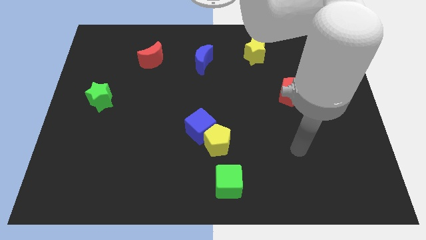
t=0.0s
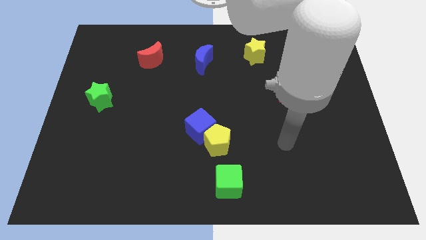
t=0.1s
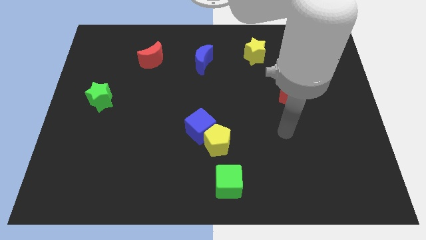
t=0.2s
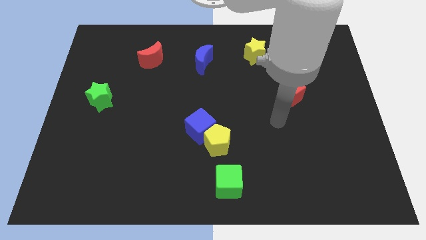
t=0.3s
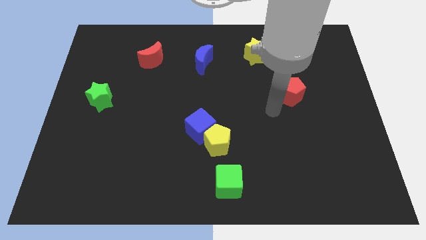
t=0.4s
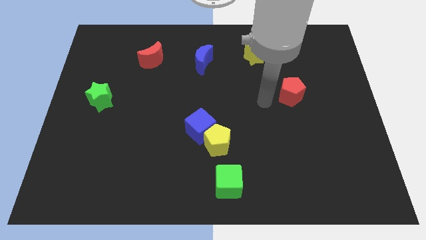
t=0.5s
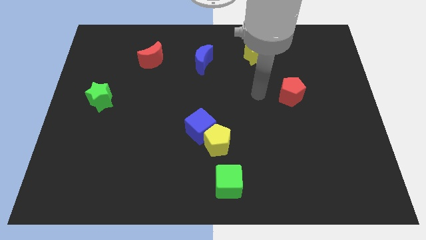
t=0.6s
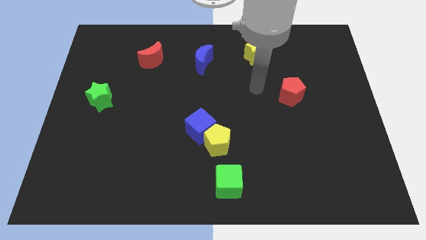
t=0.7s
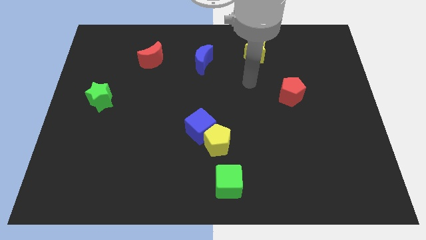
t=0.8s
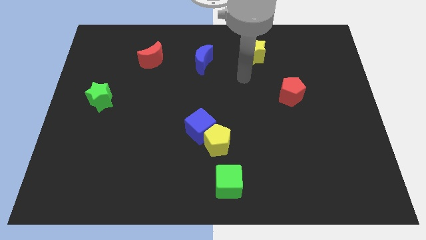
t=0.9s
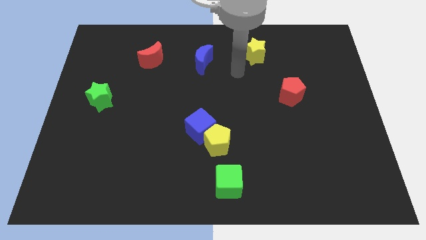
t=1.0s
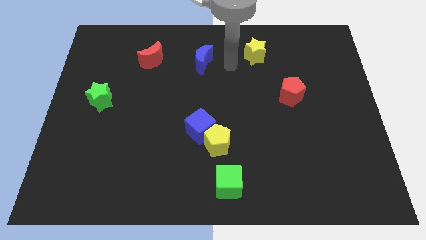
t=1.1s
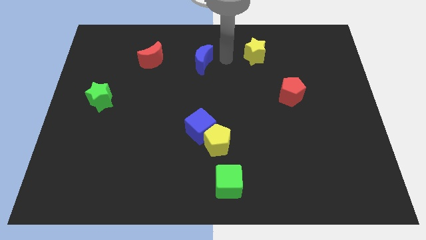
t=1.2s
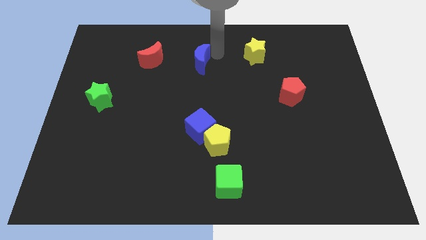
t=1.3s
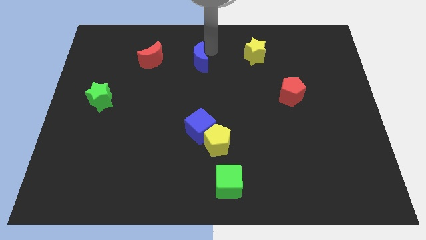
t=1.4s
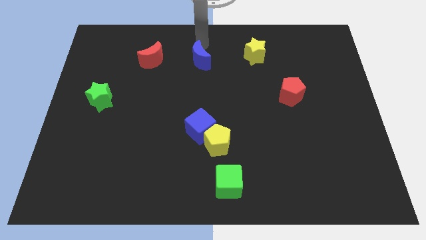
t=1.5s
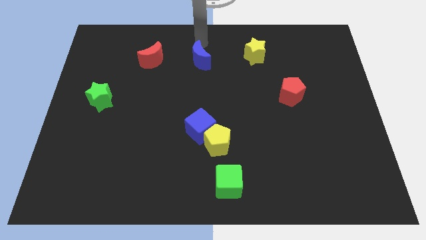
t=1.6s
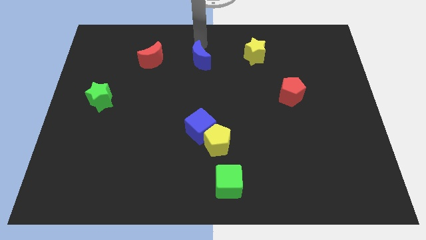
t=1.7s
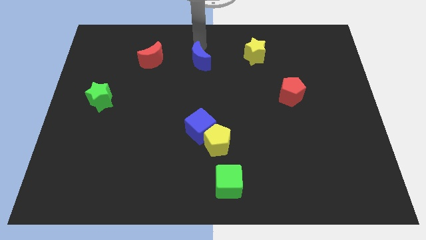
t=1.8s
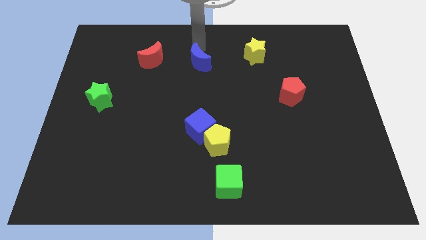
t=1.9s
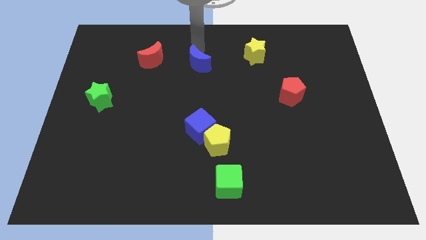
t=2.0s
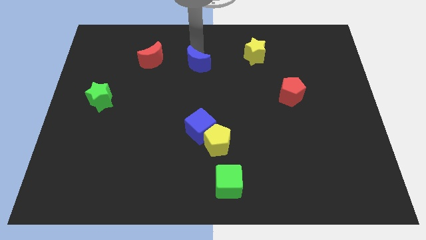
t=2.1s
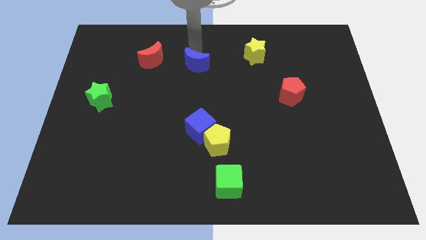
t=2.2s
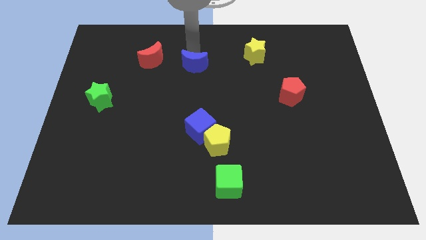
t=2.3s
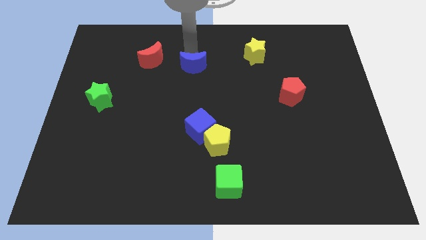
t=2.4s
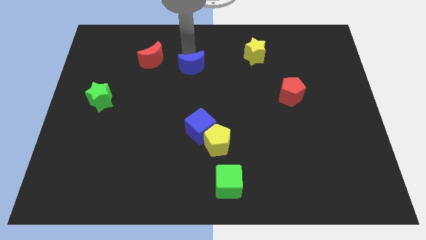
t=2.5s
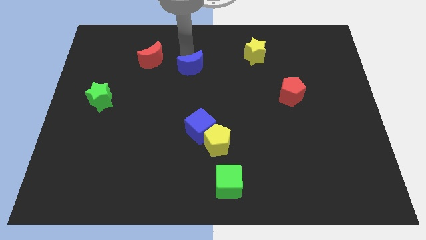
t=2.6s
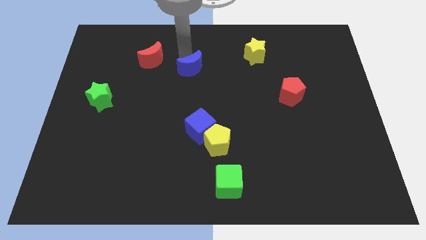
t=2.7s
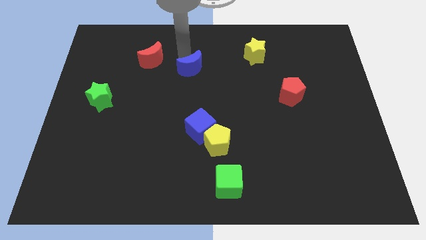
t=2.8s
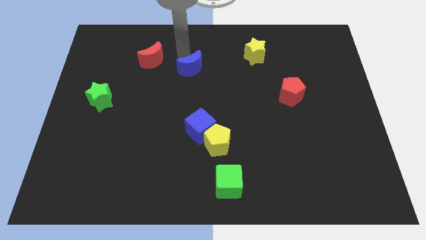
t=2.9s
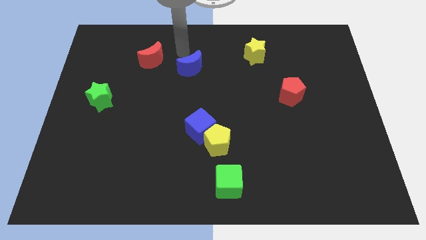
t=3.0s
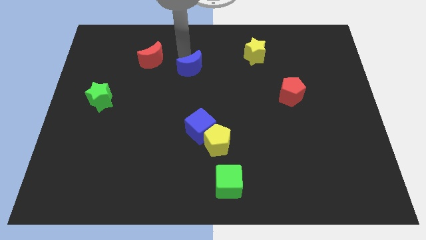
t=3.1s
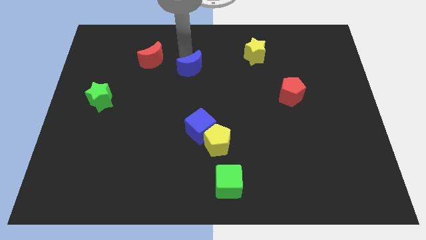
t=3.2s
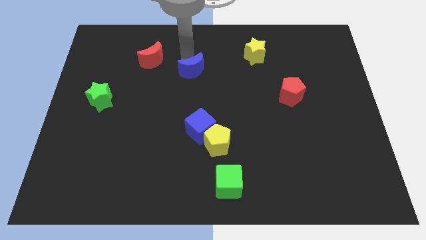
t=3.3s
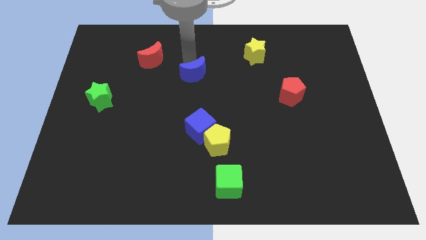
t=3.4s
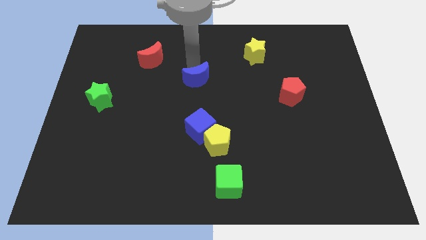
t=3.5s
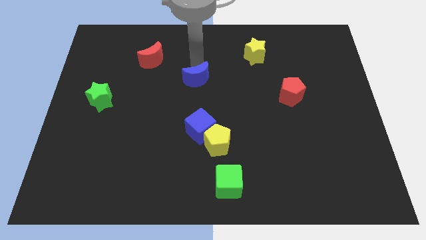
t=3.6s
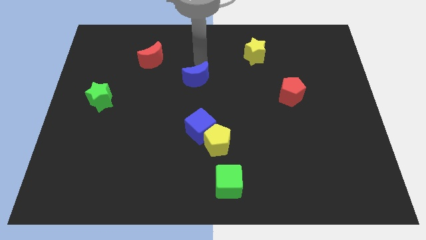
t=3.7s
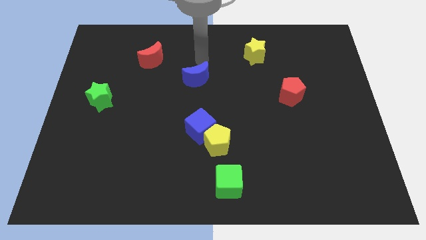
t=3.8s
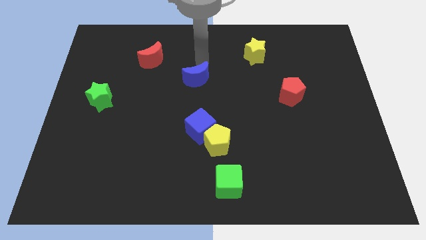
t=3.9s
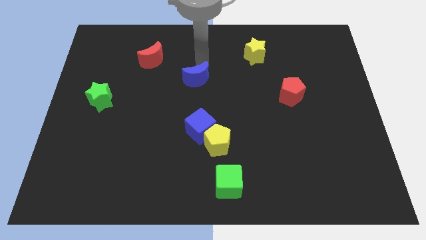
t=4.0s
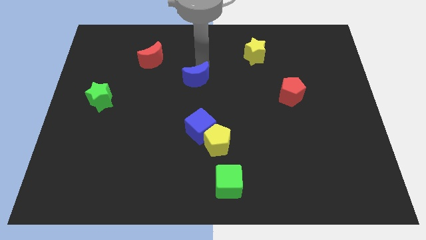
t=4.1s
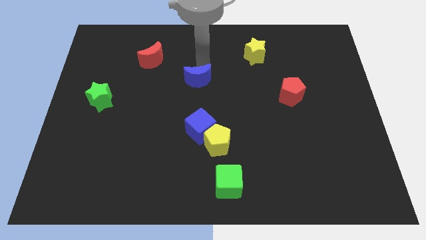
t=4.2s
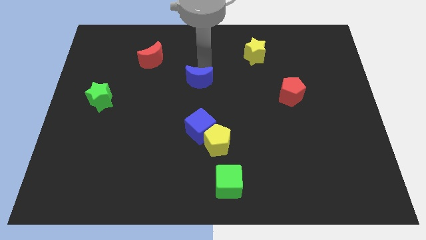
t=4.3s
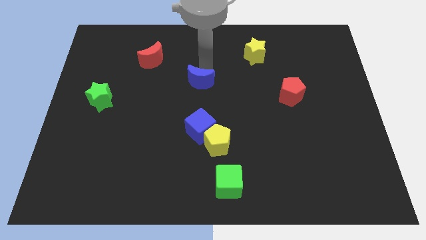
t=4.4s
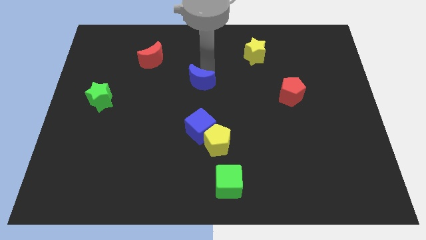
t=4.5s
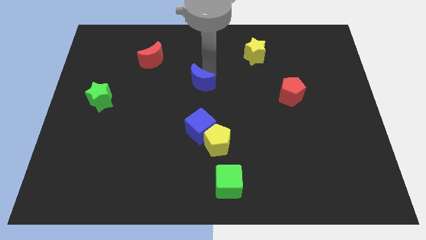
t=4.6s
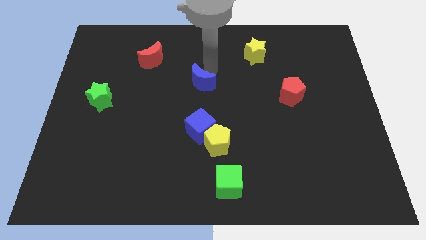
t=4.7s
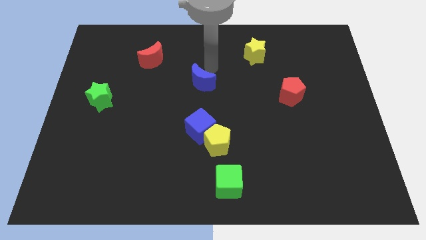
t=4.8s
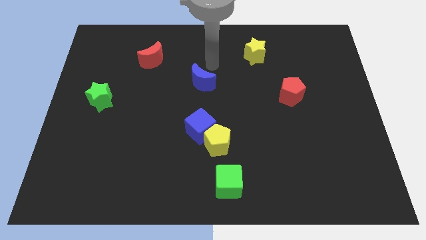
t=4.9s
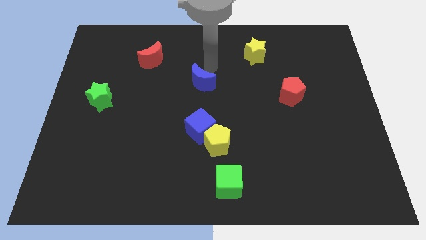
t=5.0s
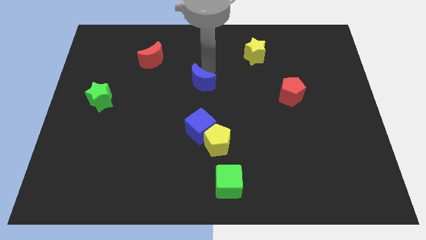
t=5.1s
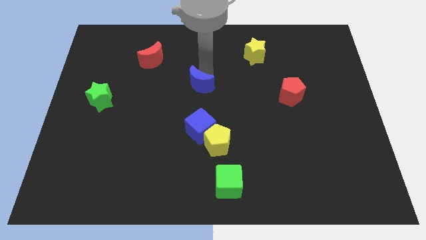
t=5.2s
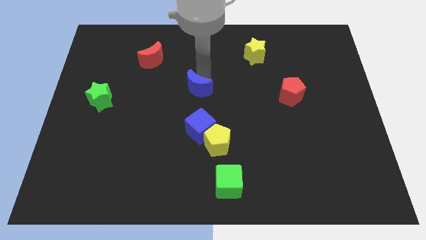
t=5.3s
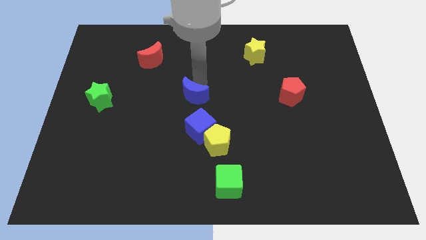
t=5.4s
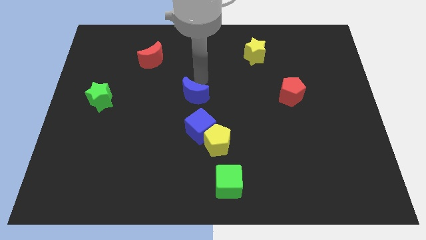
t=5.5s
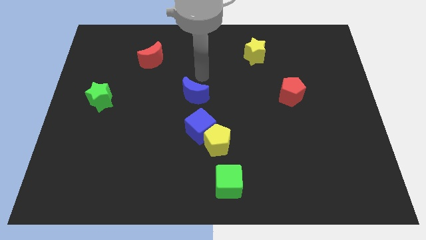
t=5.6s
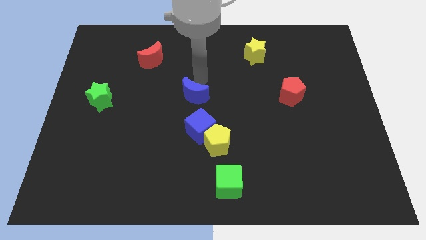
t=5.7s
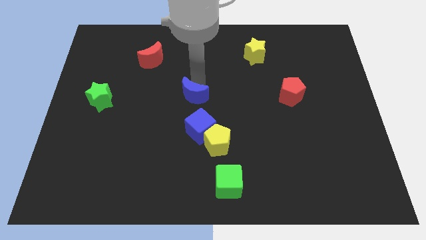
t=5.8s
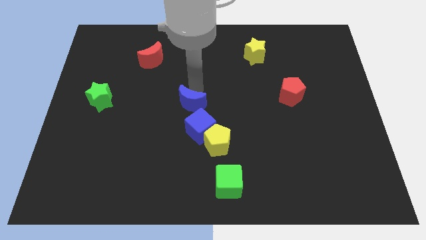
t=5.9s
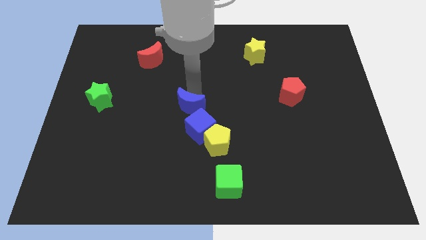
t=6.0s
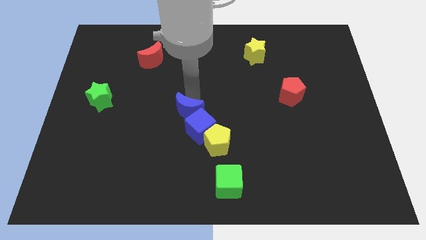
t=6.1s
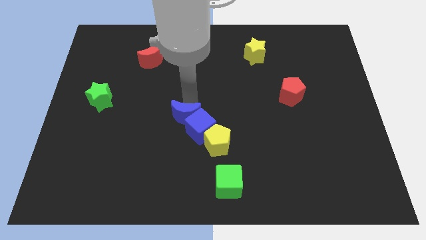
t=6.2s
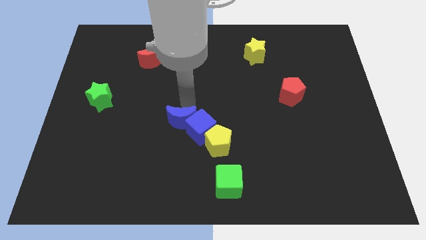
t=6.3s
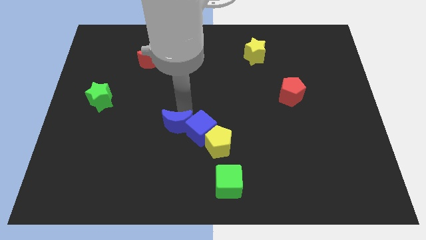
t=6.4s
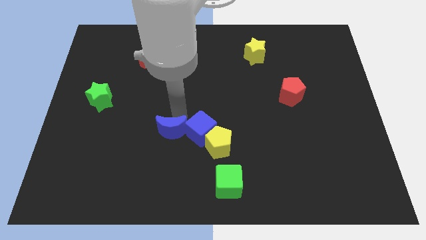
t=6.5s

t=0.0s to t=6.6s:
move the blue moon downwards

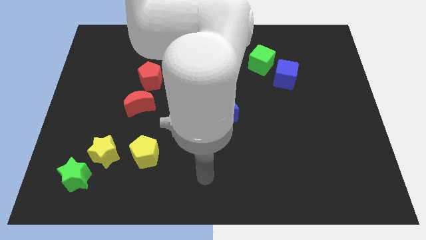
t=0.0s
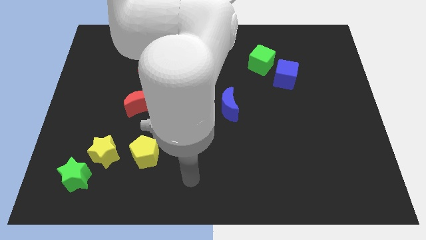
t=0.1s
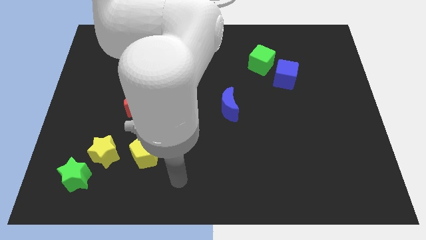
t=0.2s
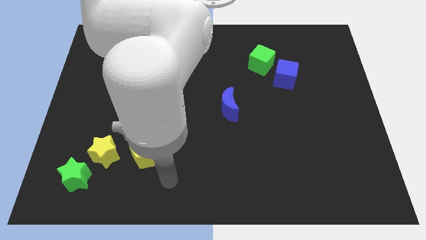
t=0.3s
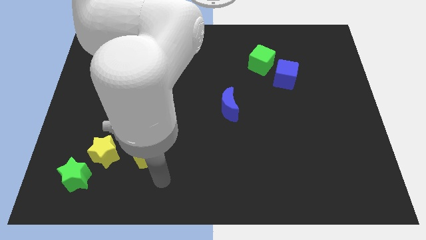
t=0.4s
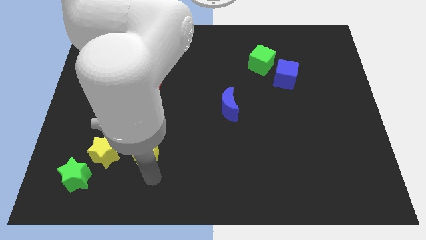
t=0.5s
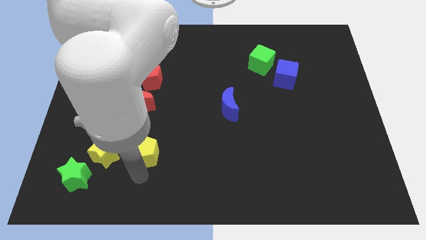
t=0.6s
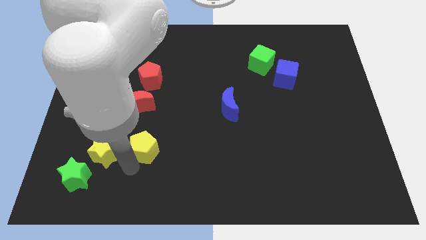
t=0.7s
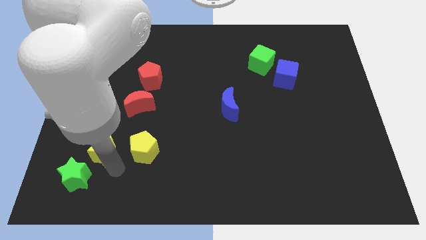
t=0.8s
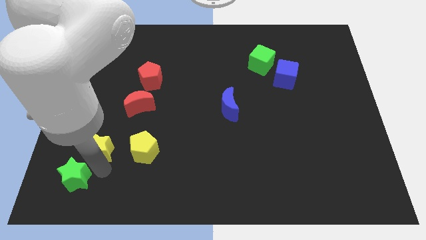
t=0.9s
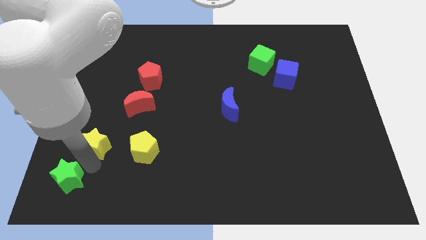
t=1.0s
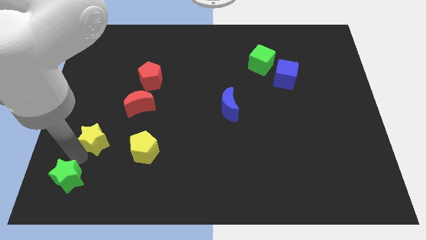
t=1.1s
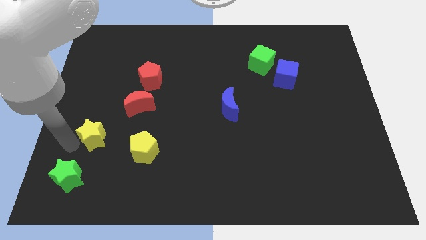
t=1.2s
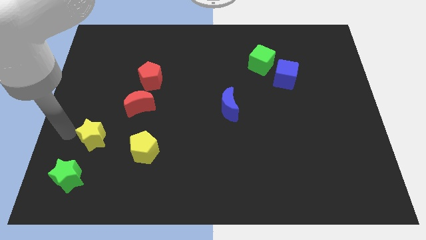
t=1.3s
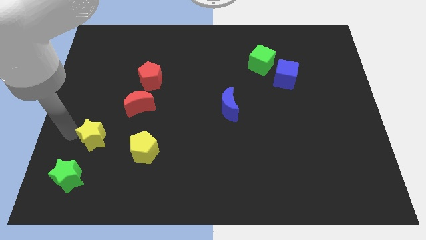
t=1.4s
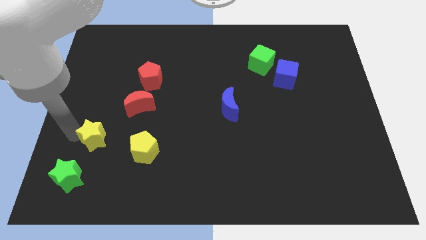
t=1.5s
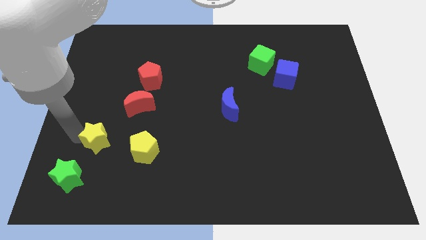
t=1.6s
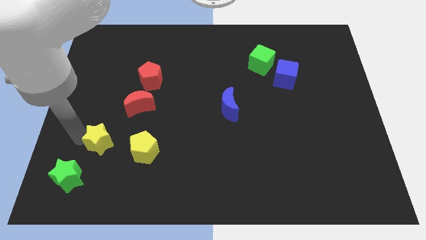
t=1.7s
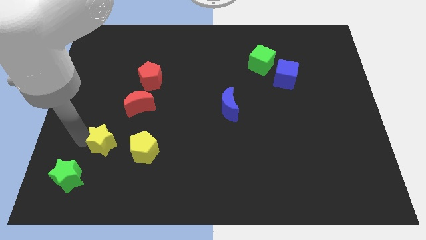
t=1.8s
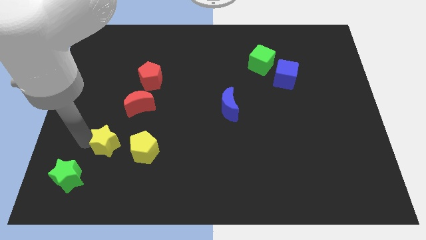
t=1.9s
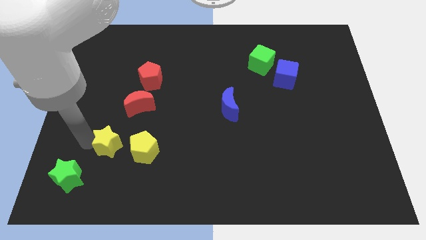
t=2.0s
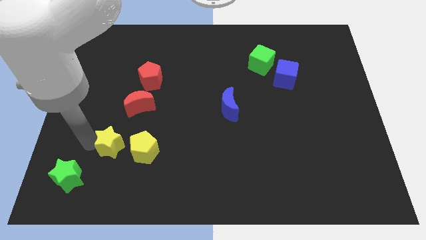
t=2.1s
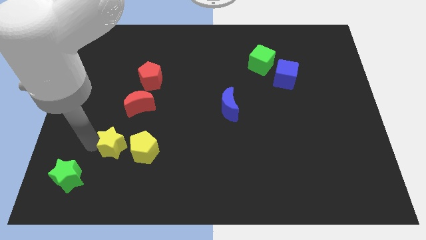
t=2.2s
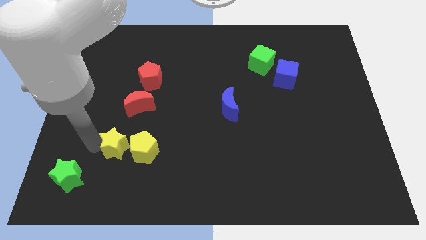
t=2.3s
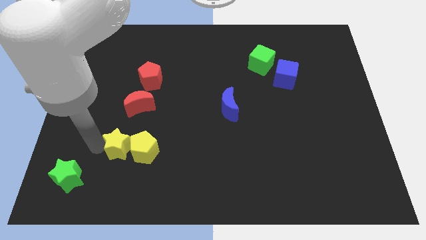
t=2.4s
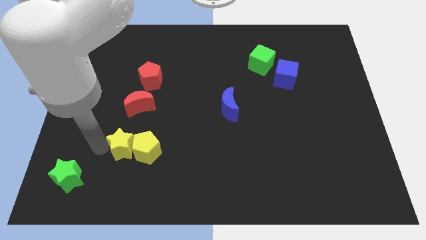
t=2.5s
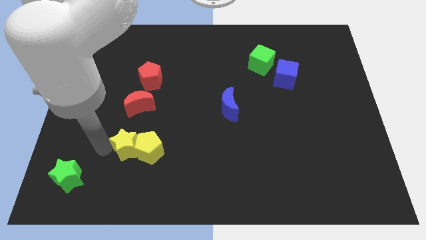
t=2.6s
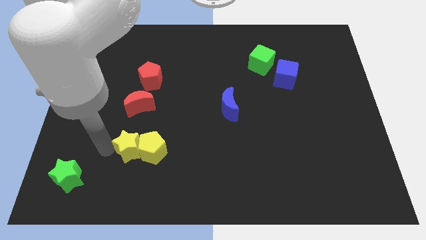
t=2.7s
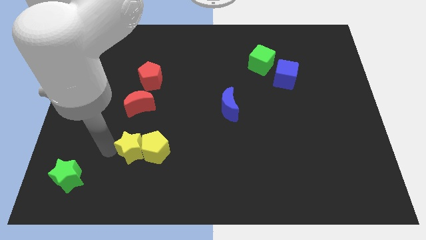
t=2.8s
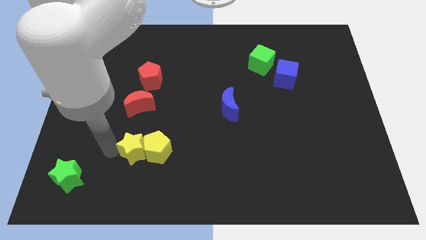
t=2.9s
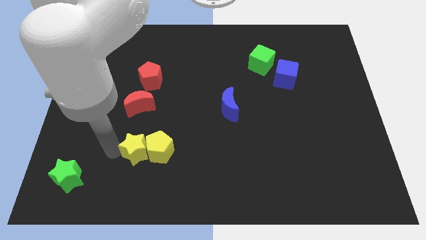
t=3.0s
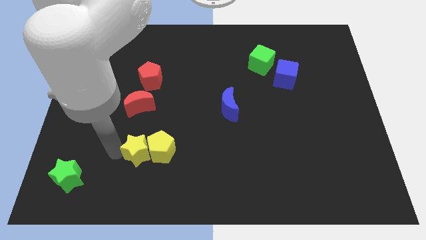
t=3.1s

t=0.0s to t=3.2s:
slightly slide the yellow star right
